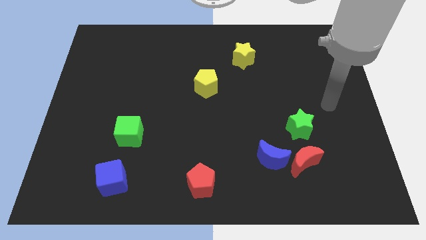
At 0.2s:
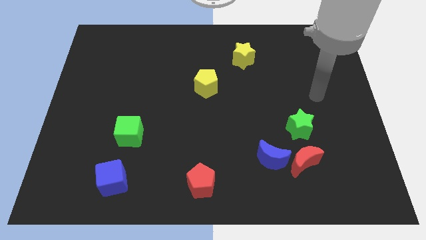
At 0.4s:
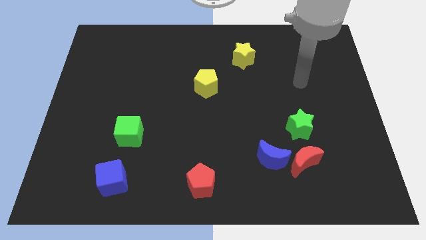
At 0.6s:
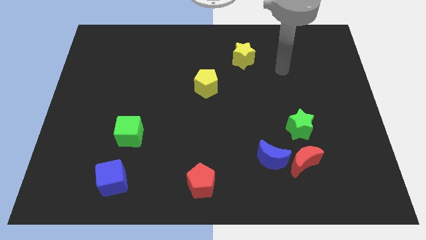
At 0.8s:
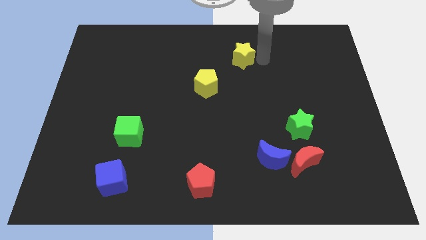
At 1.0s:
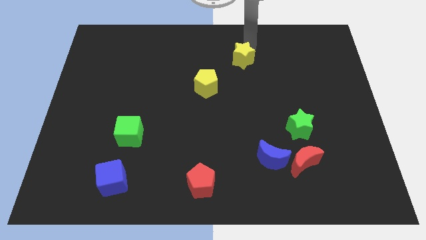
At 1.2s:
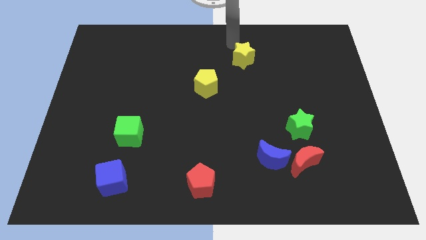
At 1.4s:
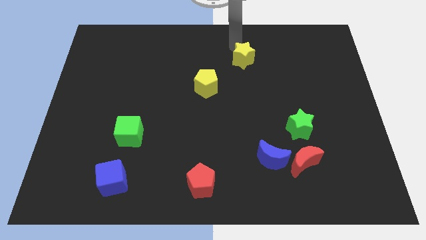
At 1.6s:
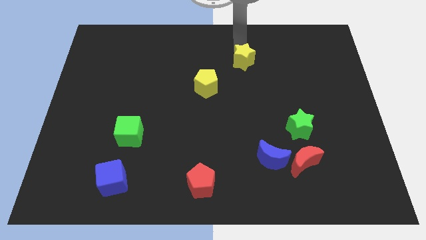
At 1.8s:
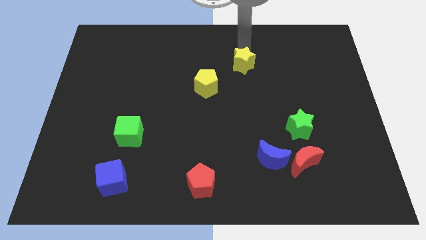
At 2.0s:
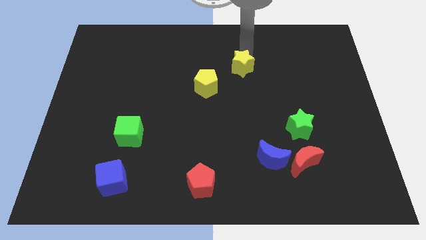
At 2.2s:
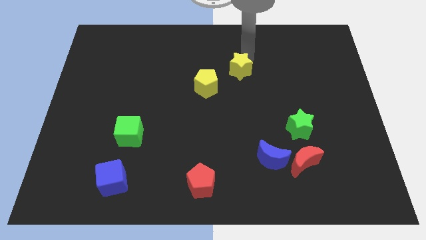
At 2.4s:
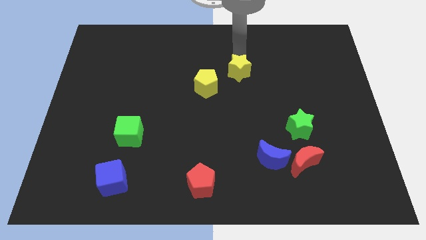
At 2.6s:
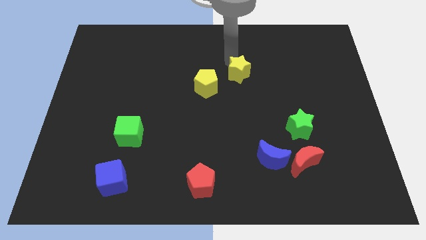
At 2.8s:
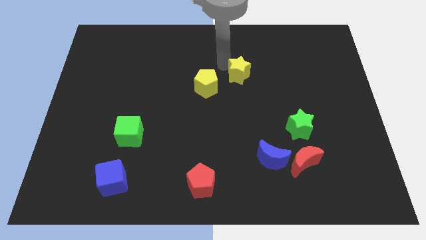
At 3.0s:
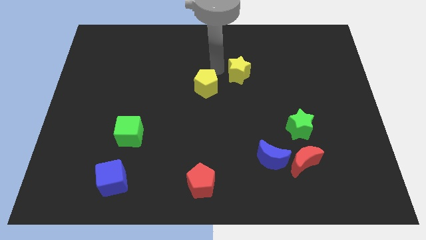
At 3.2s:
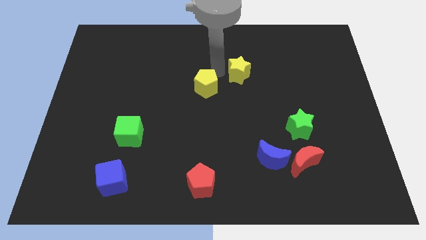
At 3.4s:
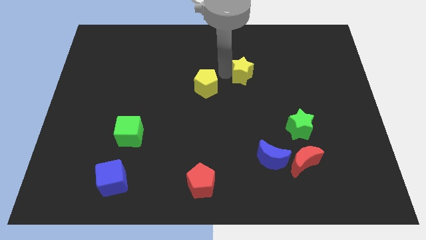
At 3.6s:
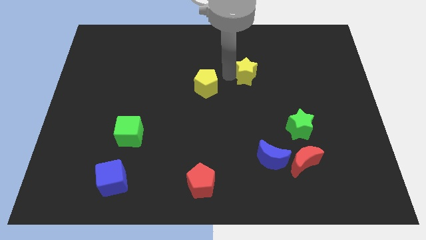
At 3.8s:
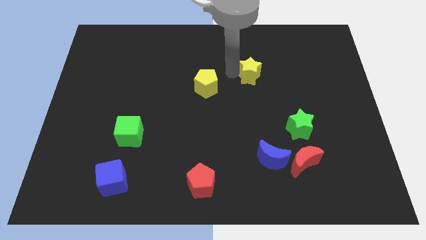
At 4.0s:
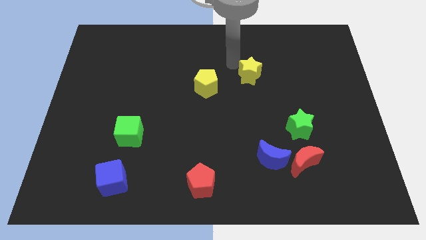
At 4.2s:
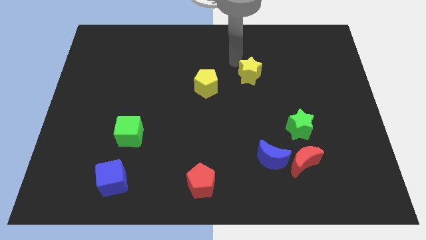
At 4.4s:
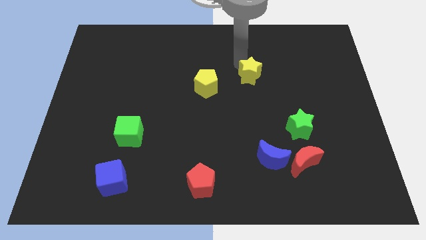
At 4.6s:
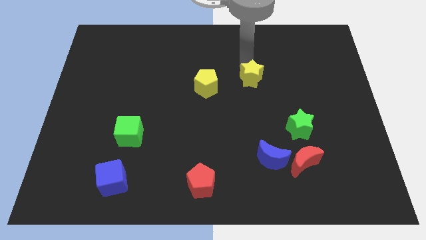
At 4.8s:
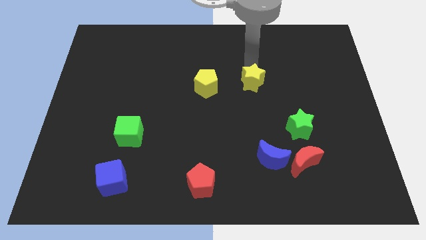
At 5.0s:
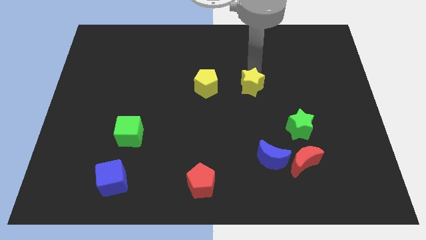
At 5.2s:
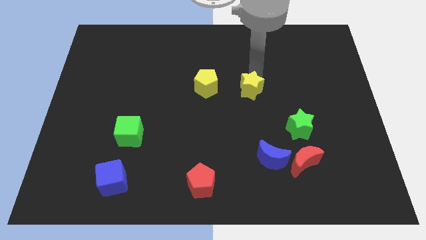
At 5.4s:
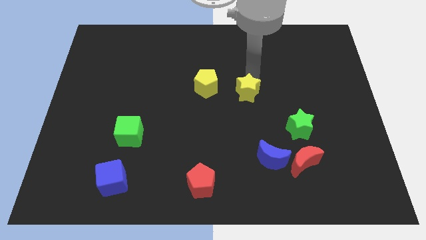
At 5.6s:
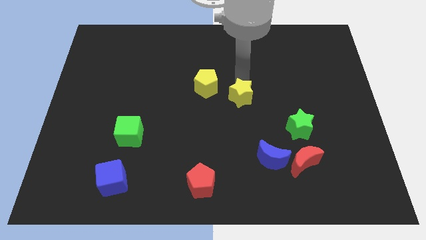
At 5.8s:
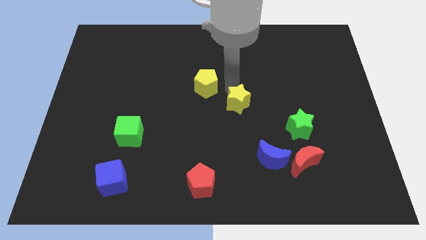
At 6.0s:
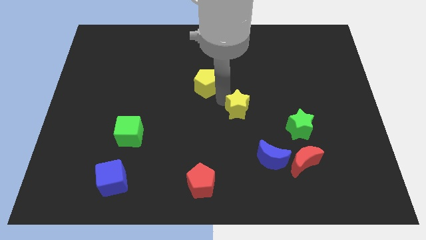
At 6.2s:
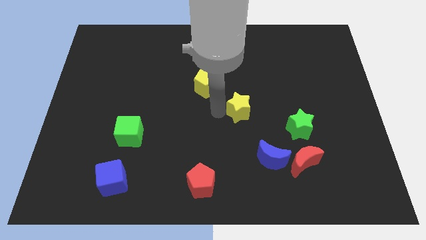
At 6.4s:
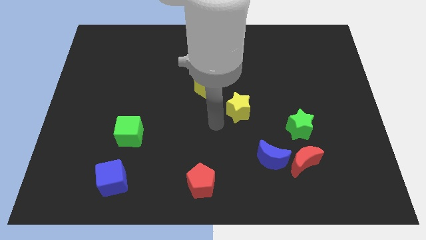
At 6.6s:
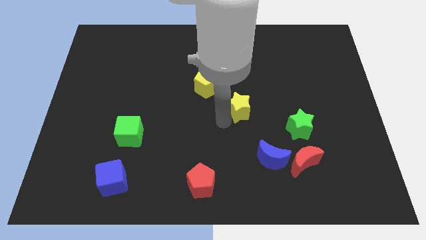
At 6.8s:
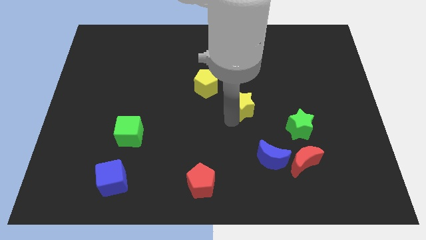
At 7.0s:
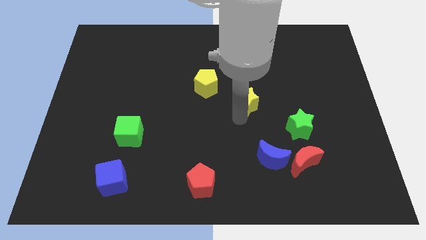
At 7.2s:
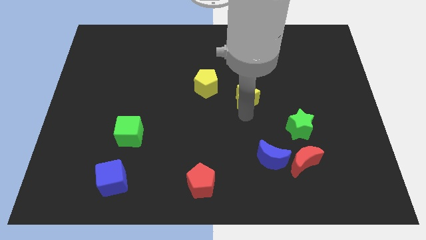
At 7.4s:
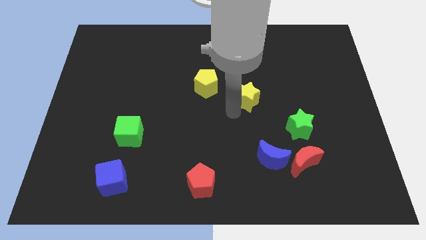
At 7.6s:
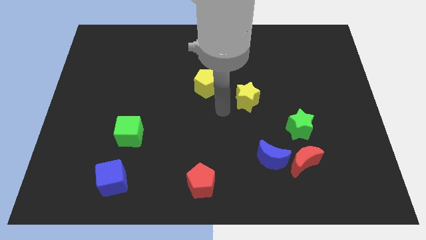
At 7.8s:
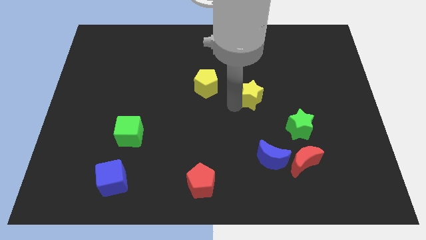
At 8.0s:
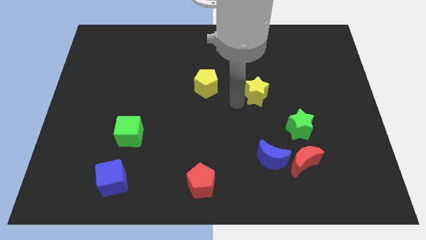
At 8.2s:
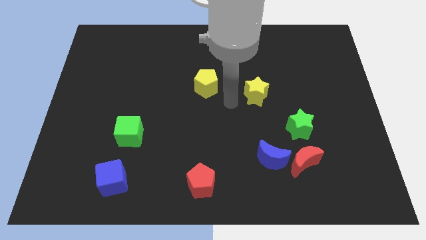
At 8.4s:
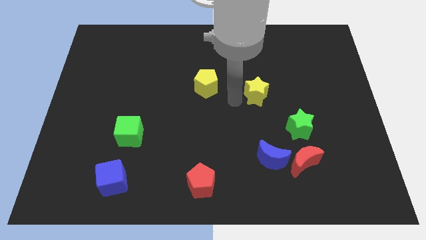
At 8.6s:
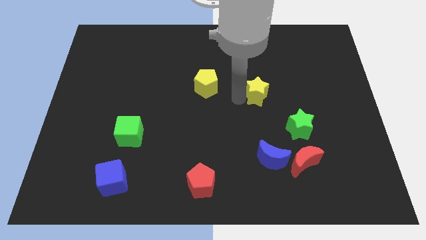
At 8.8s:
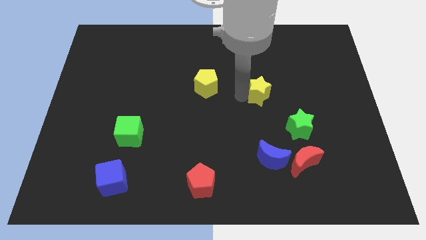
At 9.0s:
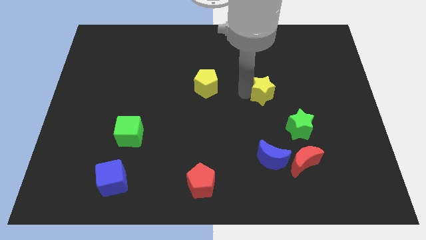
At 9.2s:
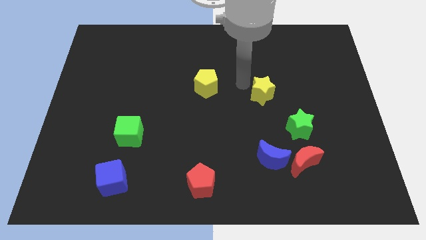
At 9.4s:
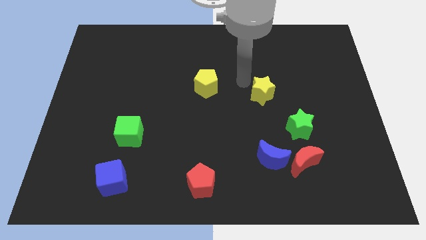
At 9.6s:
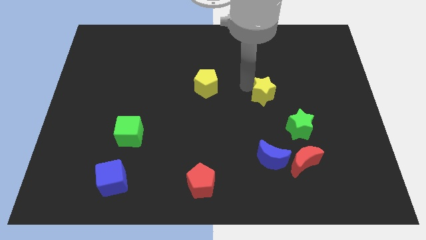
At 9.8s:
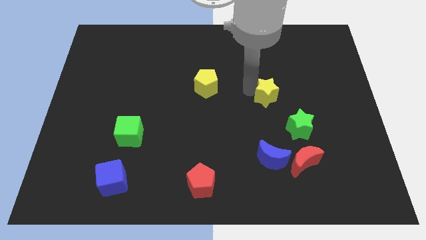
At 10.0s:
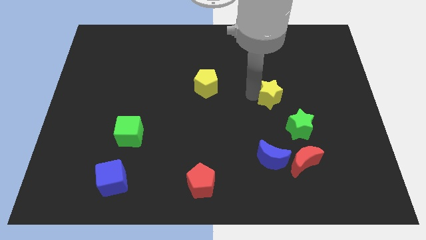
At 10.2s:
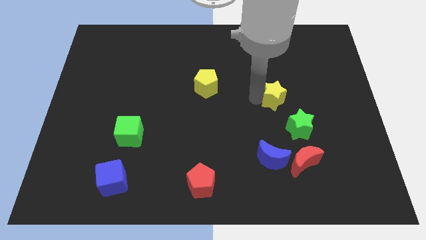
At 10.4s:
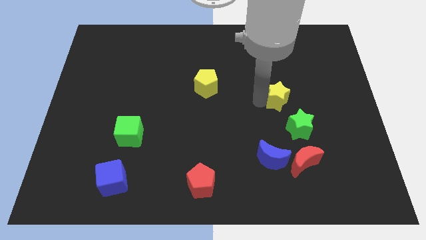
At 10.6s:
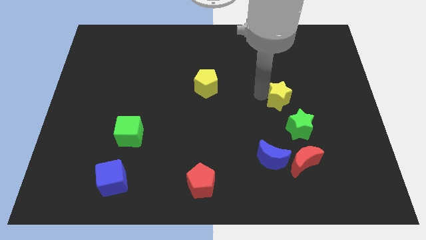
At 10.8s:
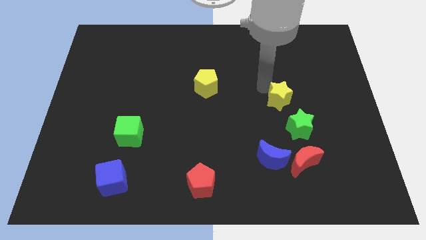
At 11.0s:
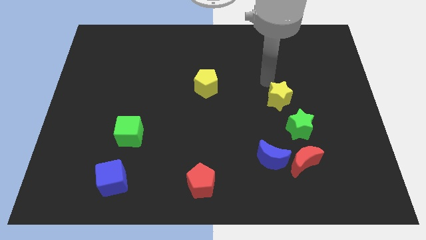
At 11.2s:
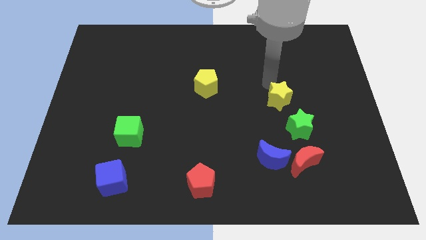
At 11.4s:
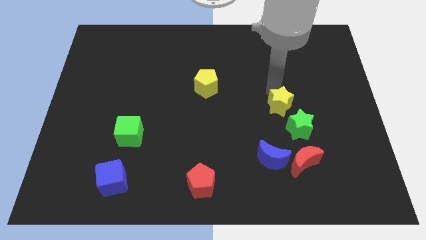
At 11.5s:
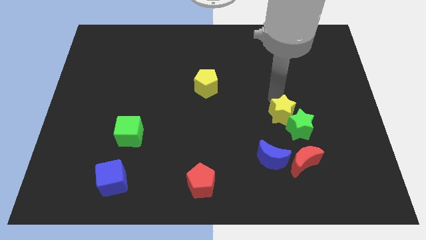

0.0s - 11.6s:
push the yellow star towards the green star

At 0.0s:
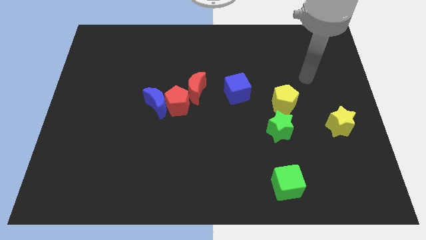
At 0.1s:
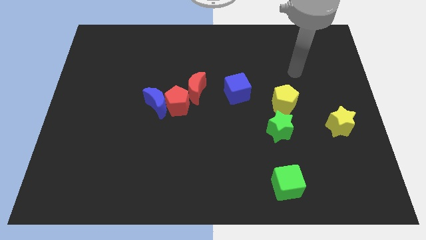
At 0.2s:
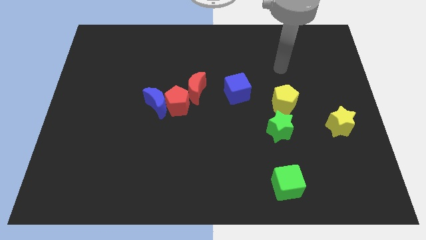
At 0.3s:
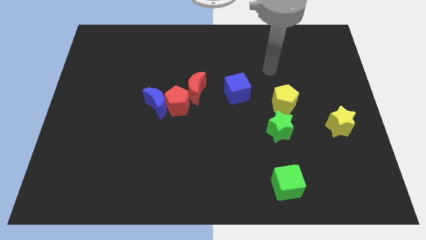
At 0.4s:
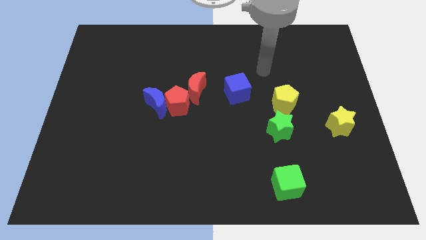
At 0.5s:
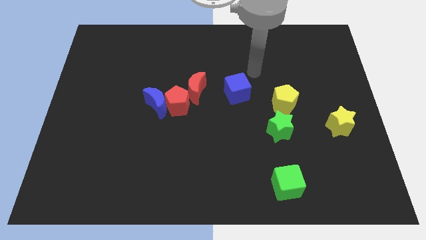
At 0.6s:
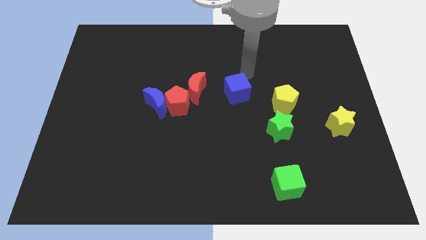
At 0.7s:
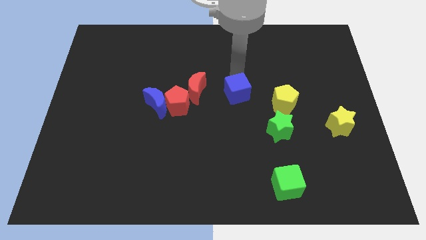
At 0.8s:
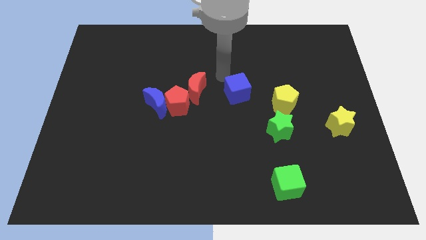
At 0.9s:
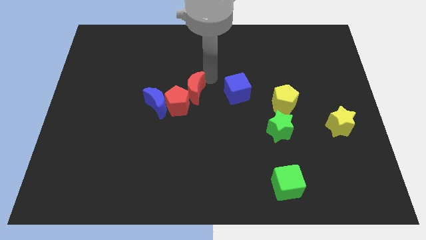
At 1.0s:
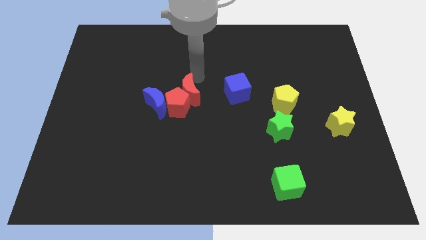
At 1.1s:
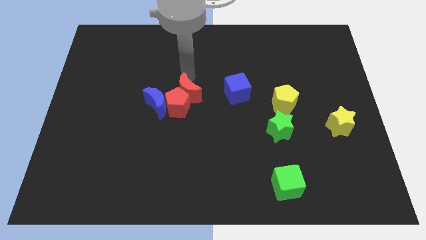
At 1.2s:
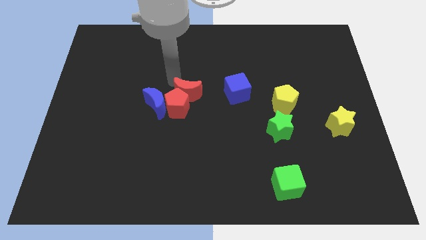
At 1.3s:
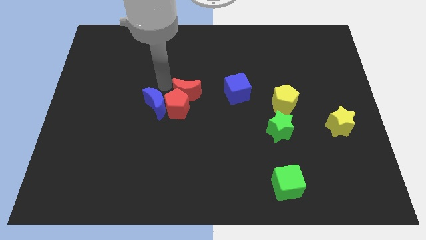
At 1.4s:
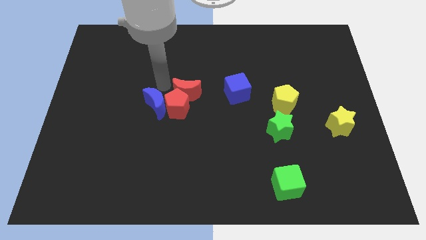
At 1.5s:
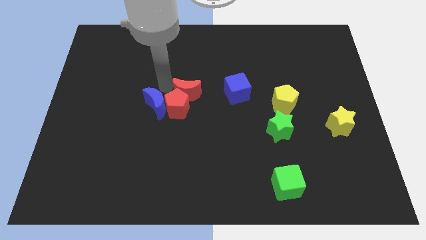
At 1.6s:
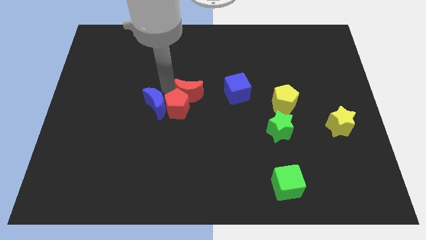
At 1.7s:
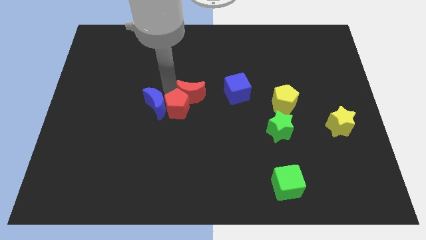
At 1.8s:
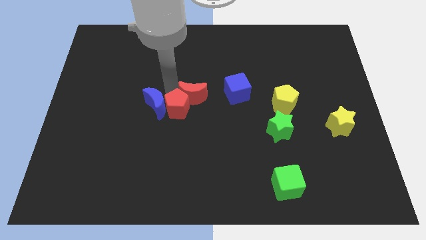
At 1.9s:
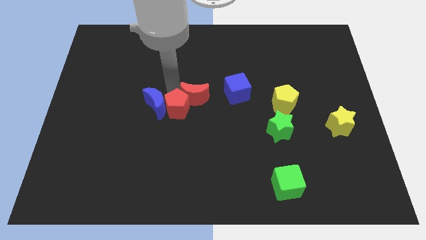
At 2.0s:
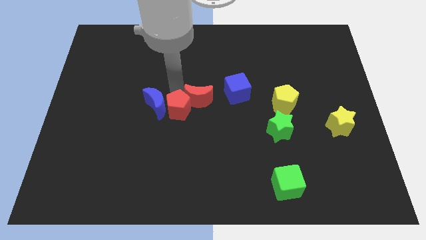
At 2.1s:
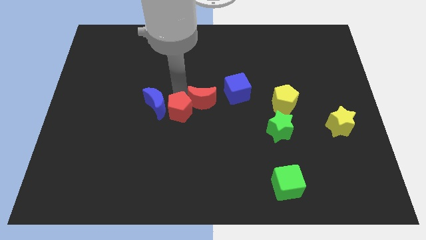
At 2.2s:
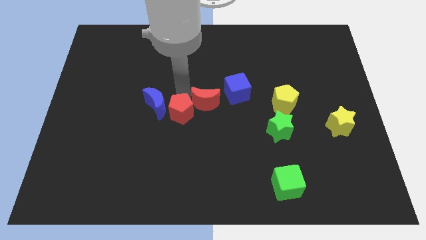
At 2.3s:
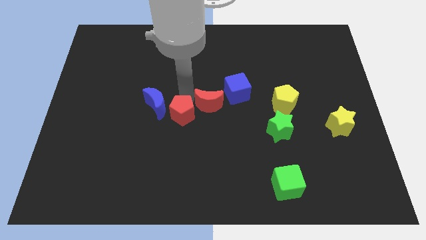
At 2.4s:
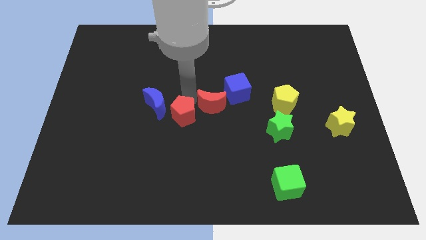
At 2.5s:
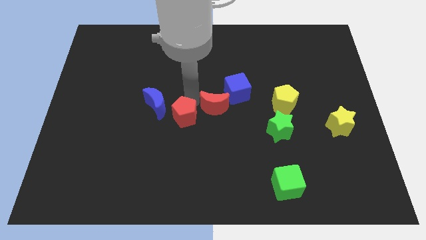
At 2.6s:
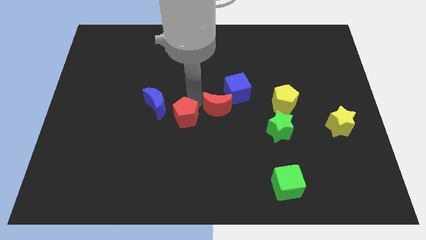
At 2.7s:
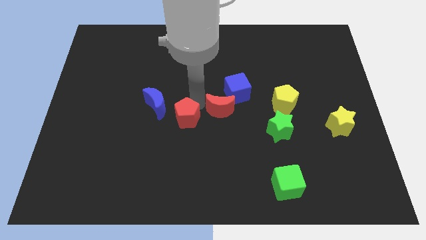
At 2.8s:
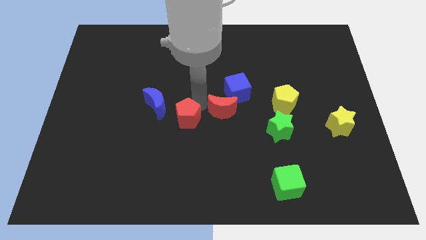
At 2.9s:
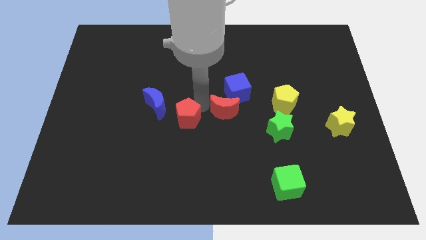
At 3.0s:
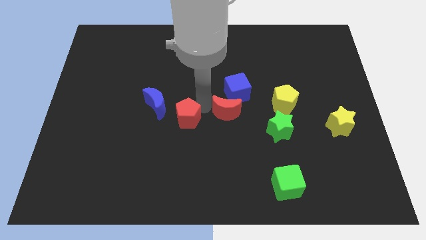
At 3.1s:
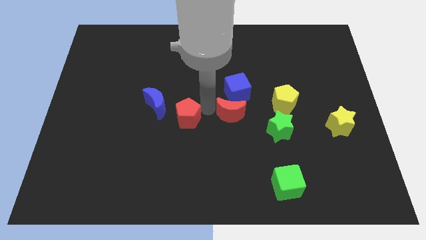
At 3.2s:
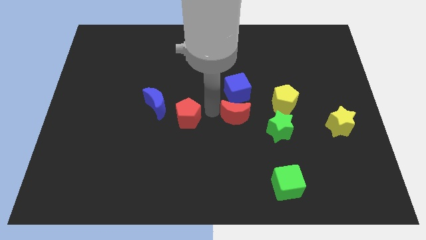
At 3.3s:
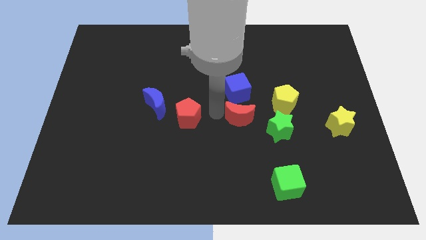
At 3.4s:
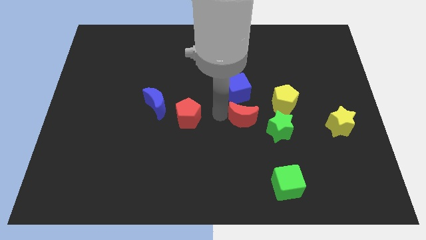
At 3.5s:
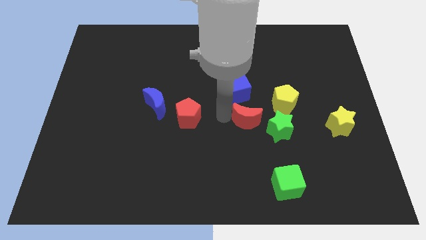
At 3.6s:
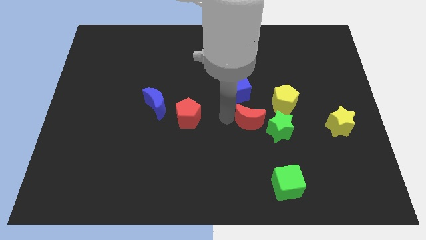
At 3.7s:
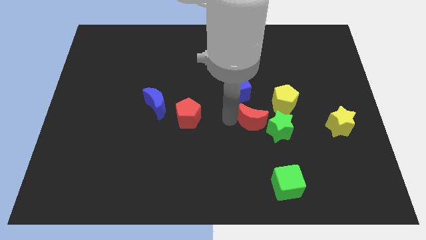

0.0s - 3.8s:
slide the red moon next to the green star
